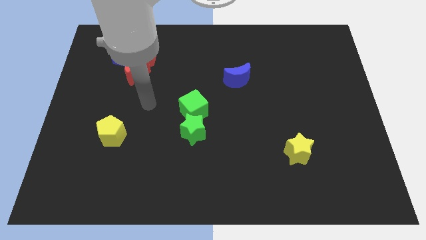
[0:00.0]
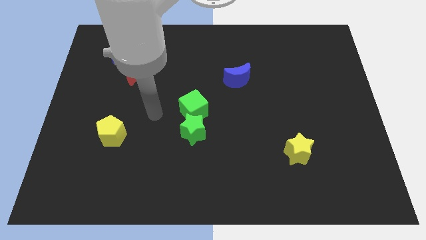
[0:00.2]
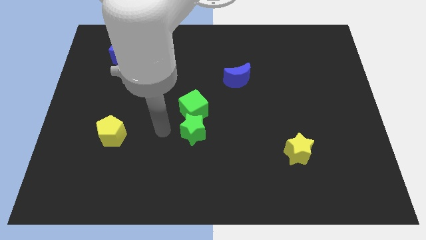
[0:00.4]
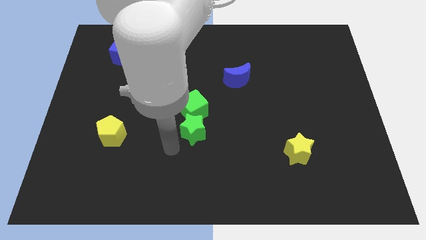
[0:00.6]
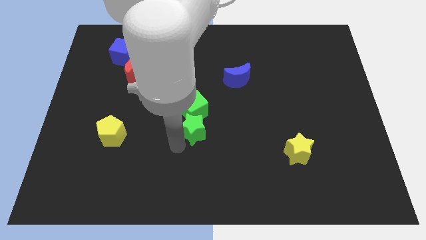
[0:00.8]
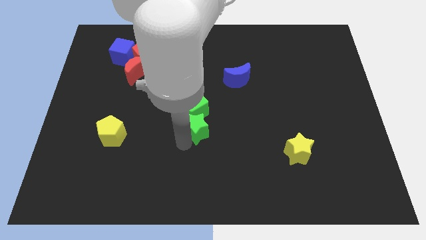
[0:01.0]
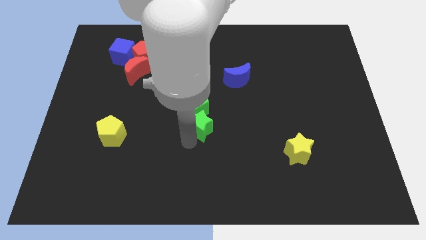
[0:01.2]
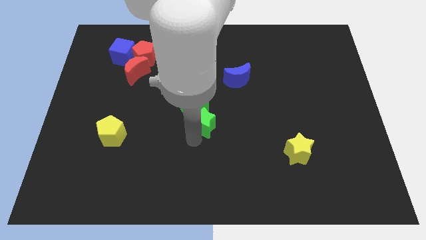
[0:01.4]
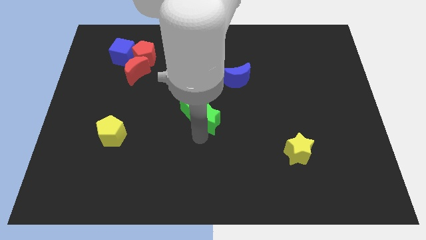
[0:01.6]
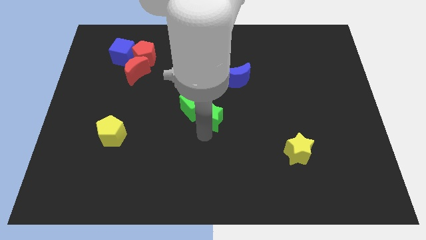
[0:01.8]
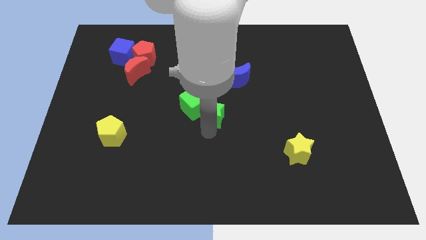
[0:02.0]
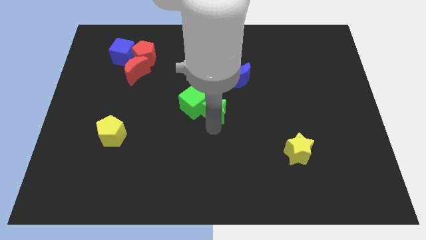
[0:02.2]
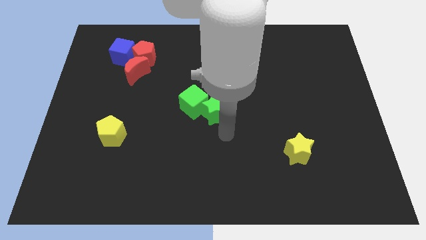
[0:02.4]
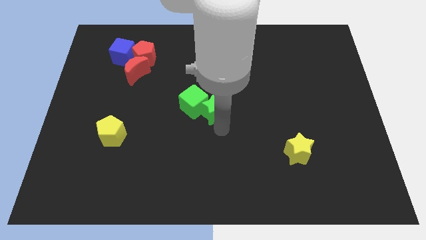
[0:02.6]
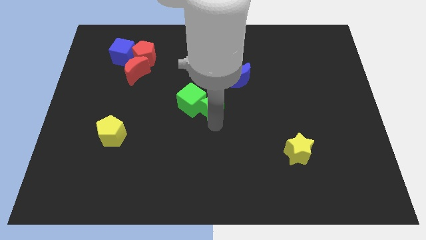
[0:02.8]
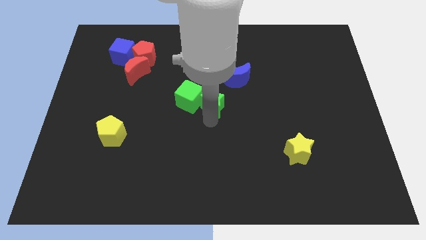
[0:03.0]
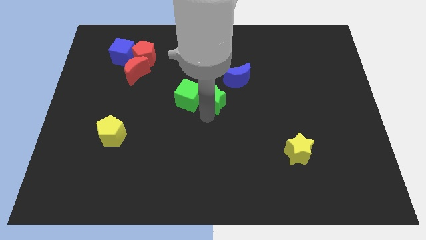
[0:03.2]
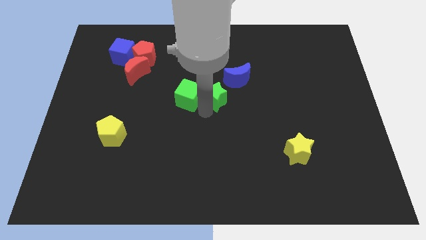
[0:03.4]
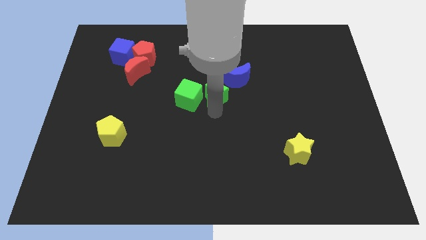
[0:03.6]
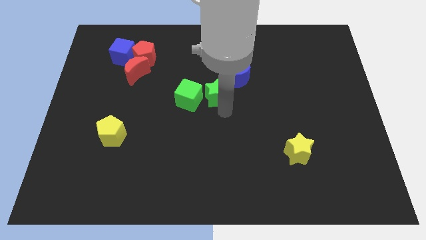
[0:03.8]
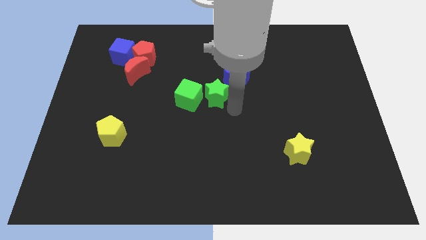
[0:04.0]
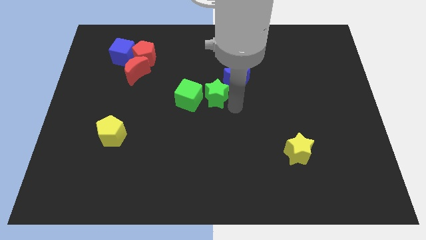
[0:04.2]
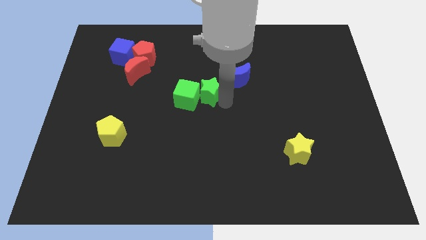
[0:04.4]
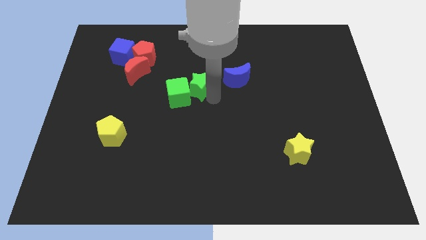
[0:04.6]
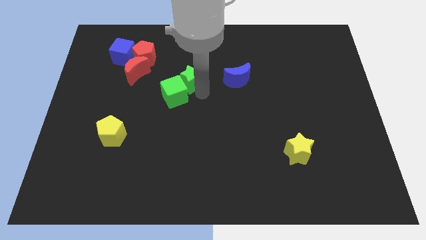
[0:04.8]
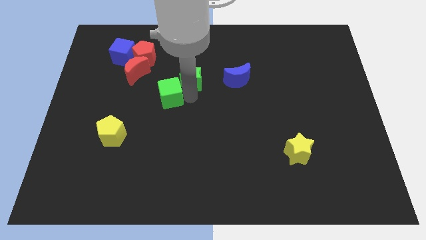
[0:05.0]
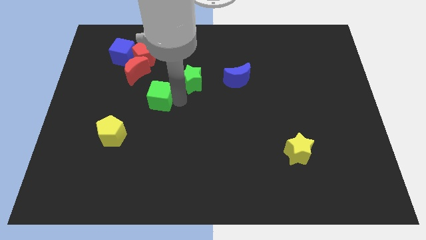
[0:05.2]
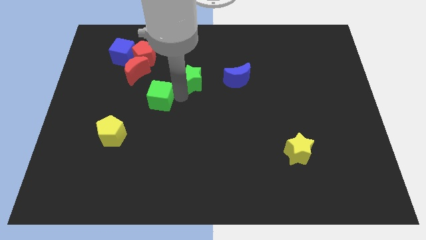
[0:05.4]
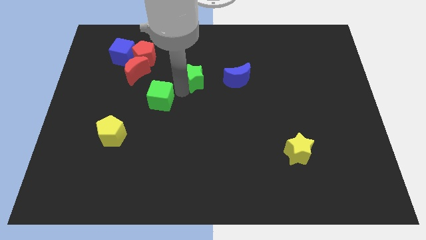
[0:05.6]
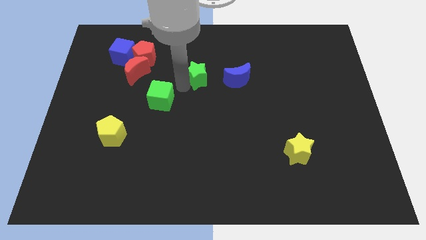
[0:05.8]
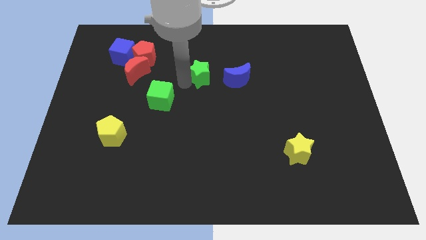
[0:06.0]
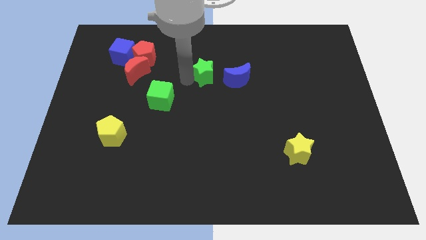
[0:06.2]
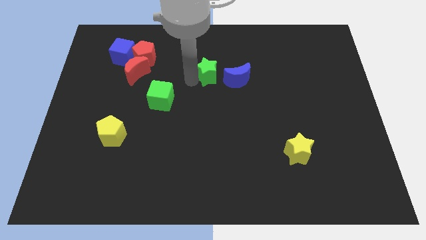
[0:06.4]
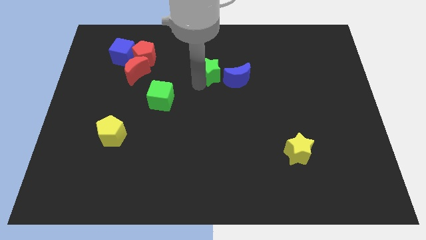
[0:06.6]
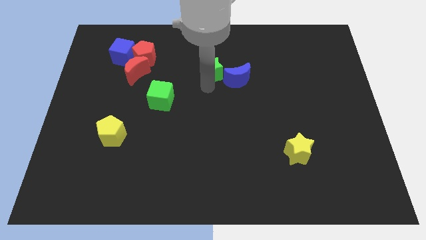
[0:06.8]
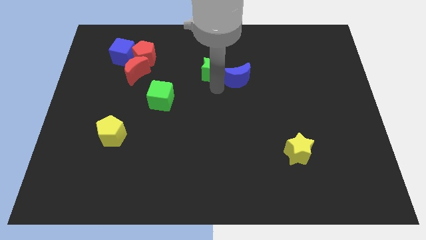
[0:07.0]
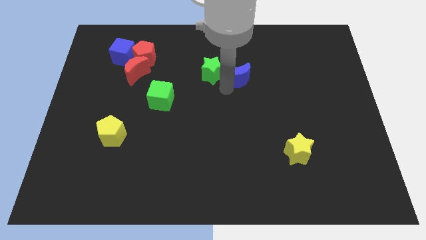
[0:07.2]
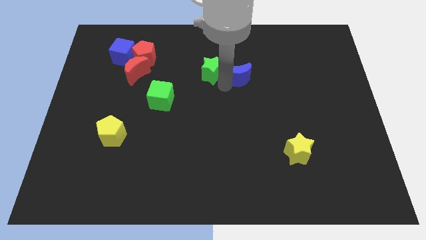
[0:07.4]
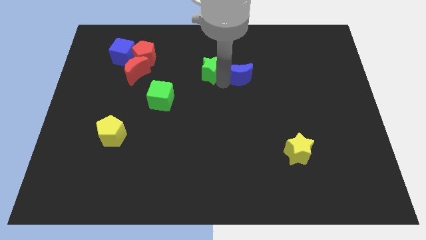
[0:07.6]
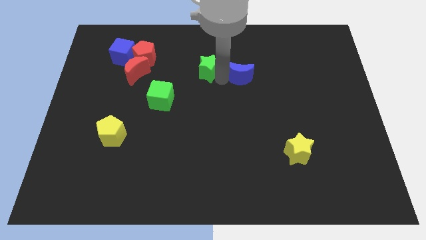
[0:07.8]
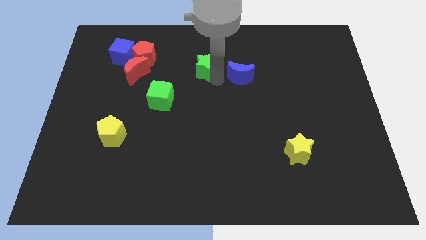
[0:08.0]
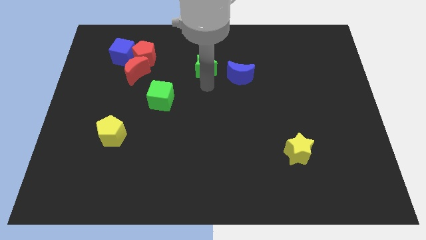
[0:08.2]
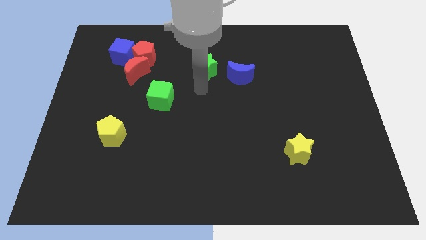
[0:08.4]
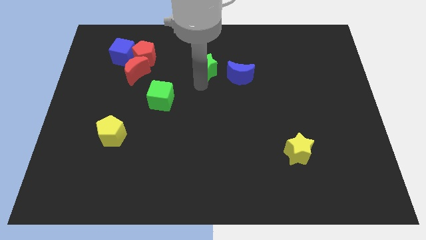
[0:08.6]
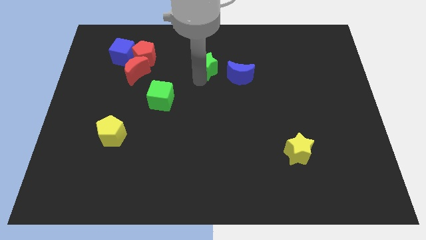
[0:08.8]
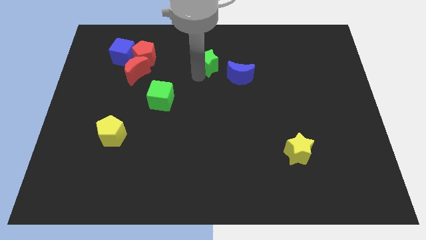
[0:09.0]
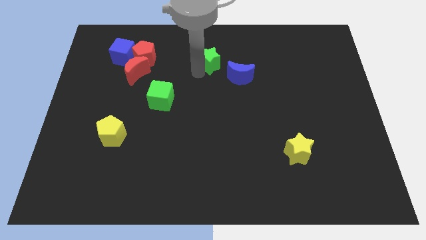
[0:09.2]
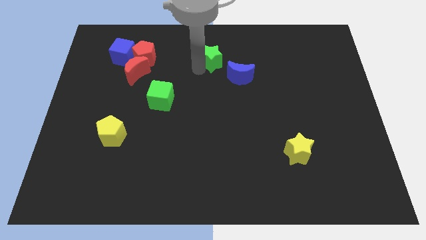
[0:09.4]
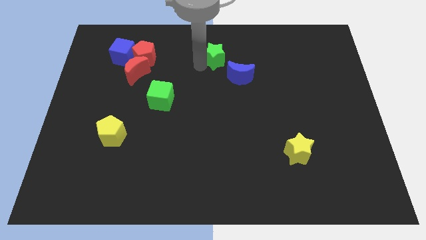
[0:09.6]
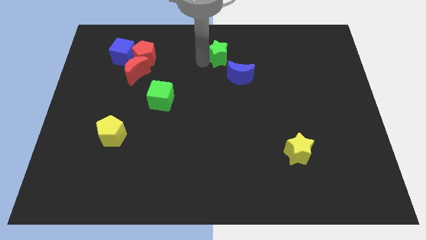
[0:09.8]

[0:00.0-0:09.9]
put the green star to the top

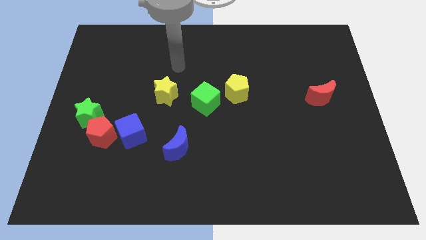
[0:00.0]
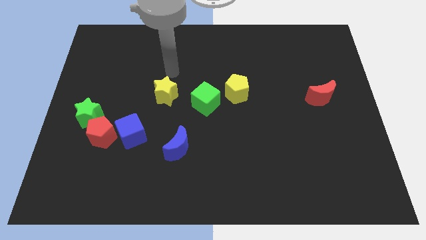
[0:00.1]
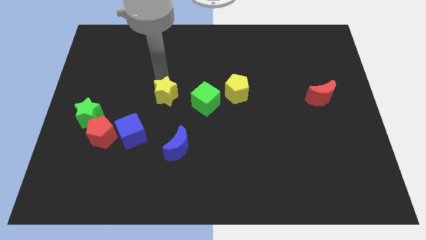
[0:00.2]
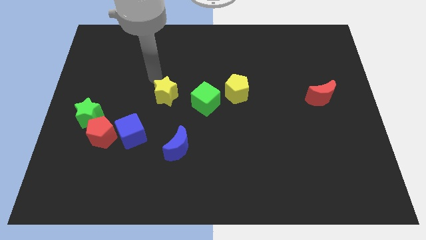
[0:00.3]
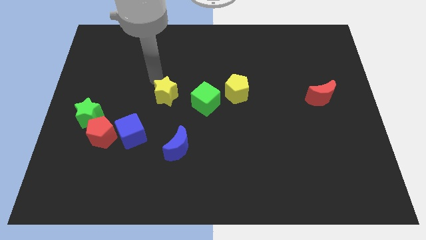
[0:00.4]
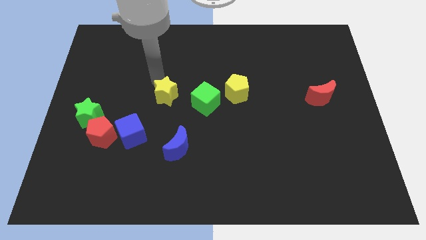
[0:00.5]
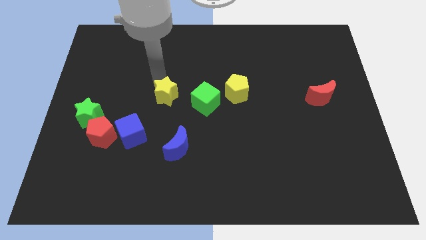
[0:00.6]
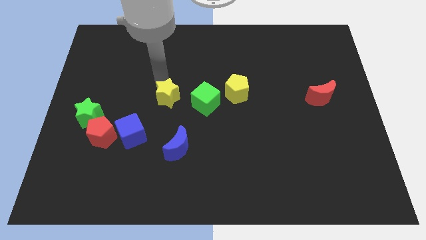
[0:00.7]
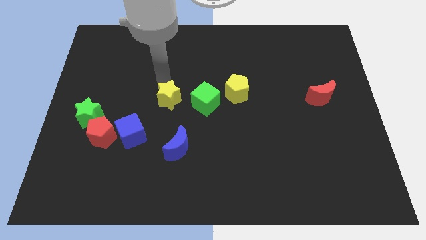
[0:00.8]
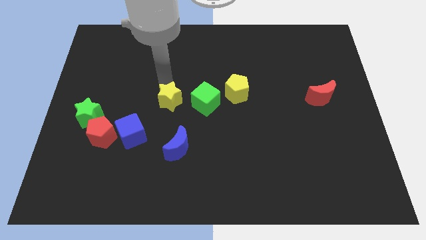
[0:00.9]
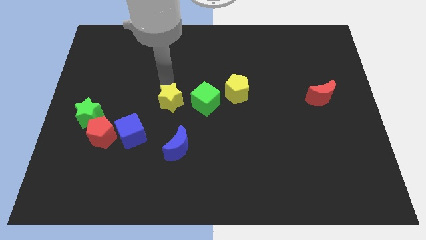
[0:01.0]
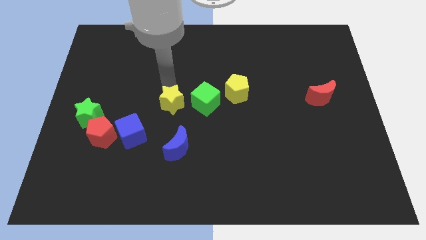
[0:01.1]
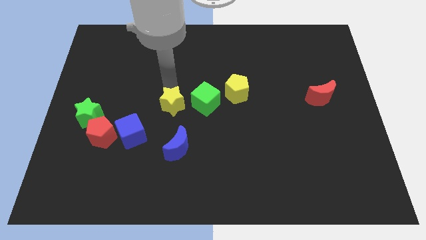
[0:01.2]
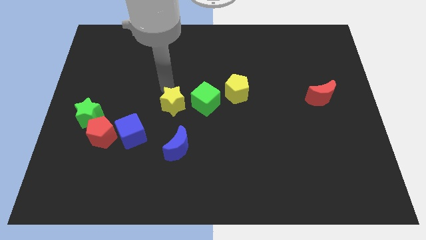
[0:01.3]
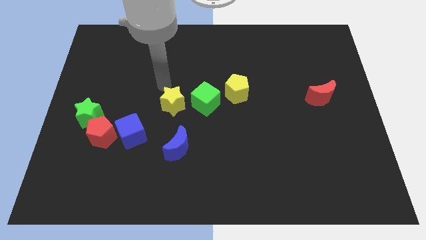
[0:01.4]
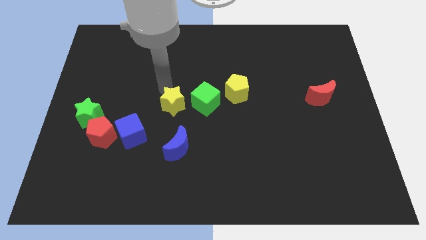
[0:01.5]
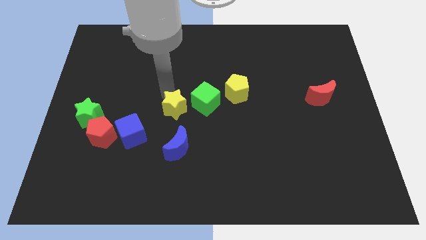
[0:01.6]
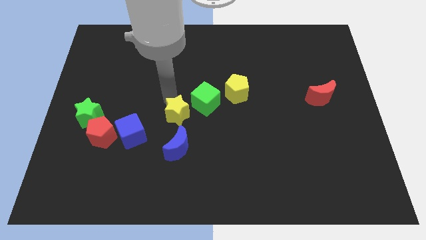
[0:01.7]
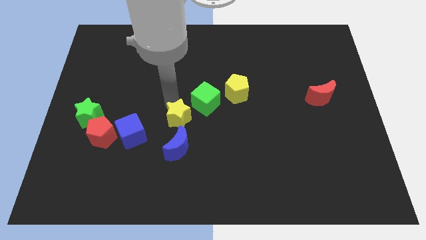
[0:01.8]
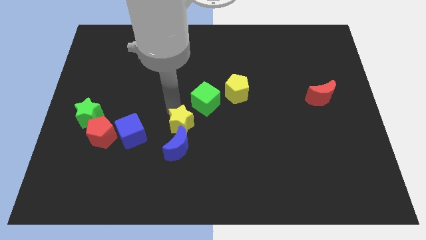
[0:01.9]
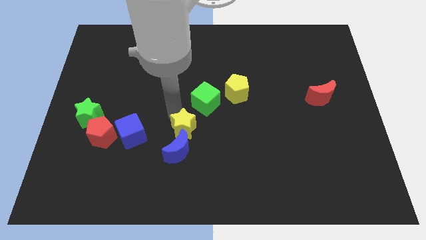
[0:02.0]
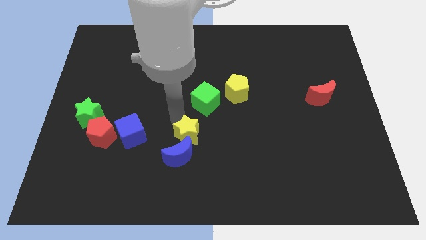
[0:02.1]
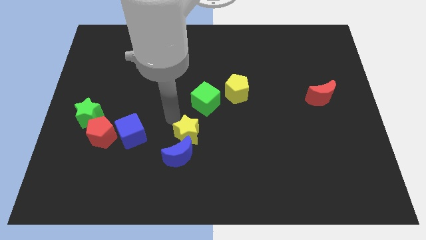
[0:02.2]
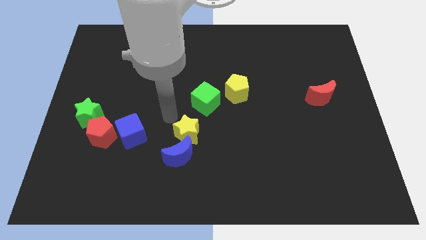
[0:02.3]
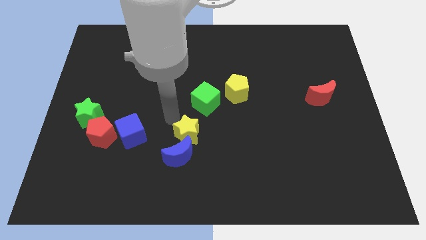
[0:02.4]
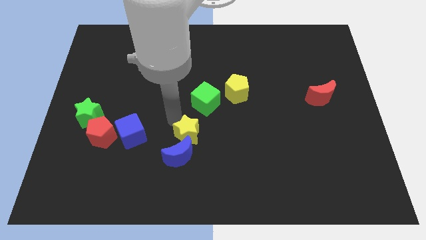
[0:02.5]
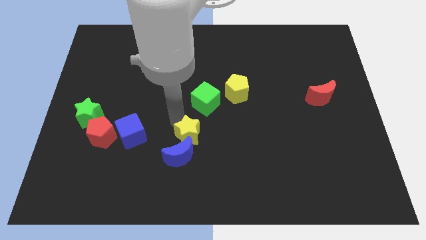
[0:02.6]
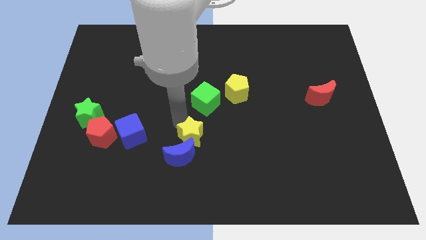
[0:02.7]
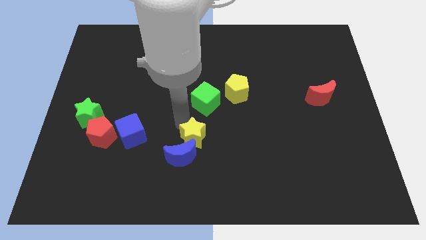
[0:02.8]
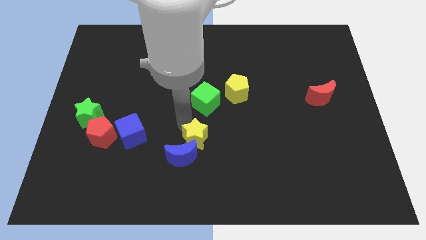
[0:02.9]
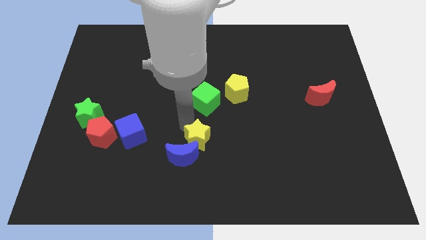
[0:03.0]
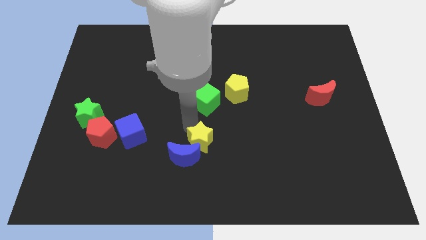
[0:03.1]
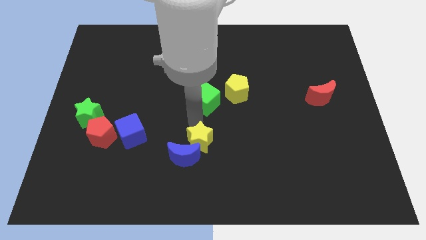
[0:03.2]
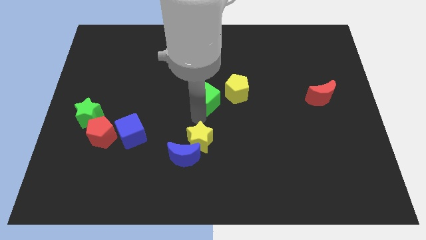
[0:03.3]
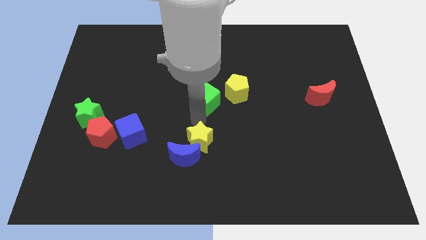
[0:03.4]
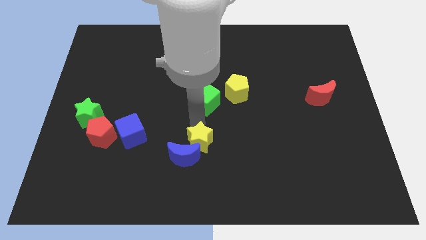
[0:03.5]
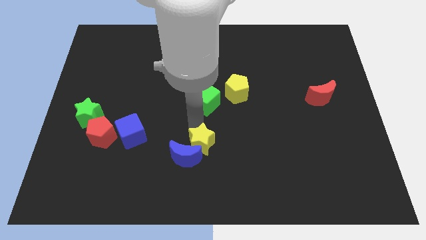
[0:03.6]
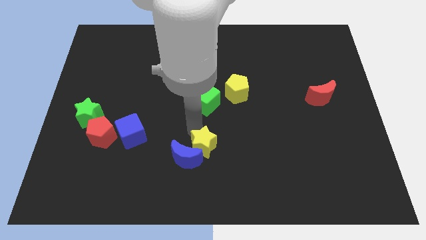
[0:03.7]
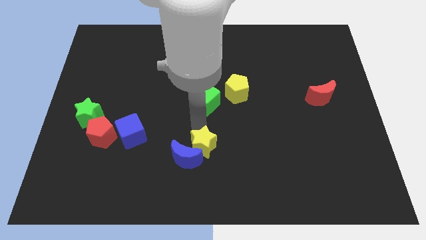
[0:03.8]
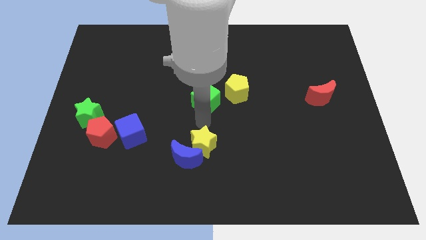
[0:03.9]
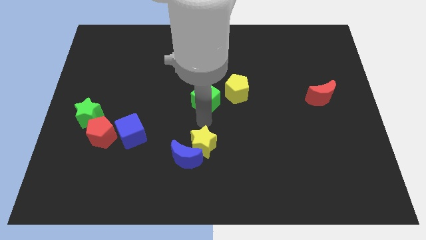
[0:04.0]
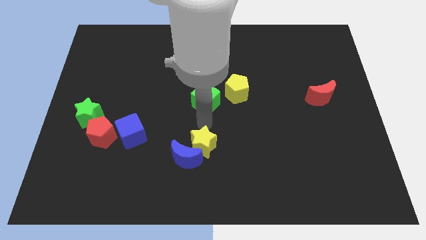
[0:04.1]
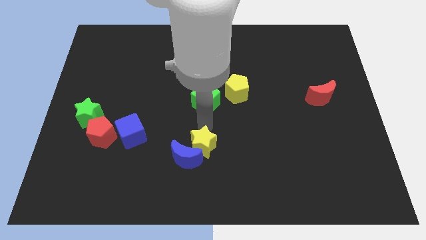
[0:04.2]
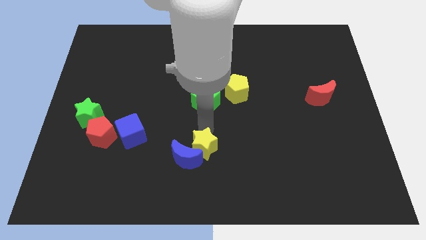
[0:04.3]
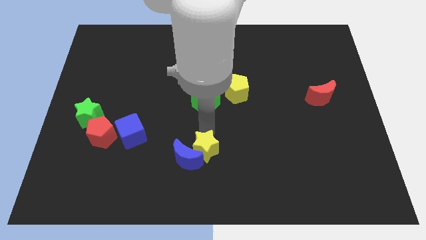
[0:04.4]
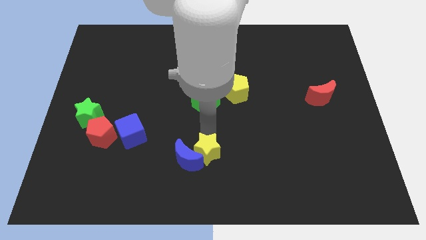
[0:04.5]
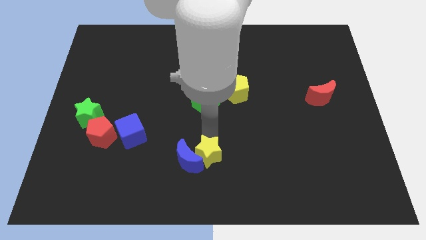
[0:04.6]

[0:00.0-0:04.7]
move the yellow star to the bottom side
